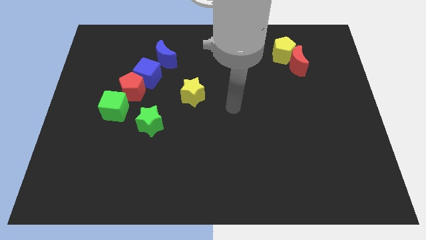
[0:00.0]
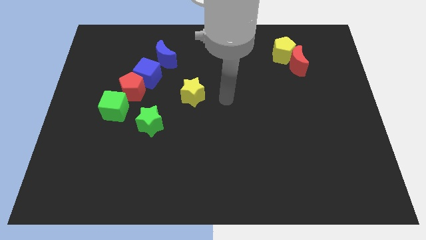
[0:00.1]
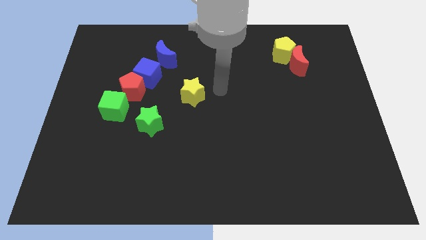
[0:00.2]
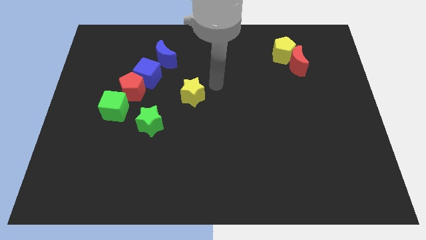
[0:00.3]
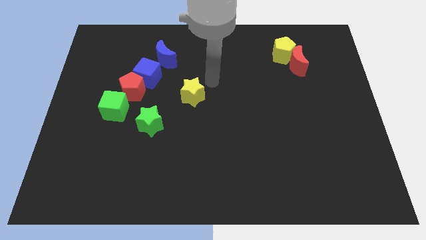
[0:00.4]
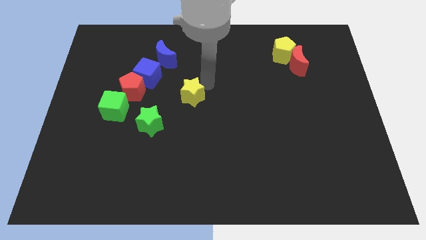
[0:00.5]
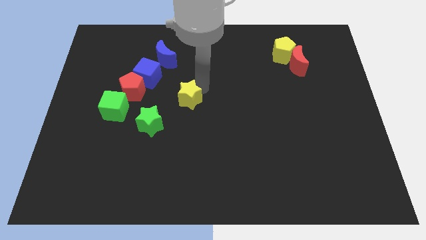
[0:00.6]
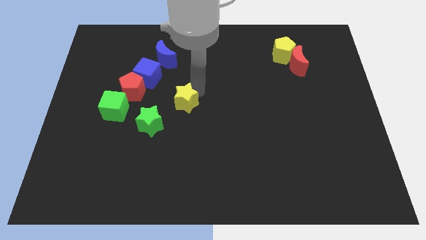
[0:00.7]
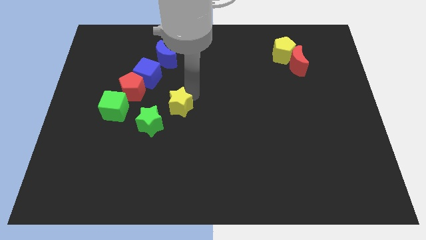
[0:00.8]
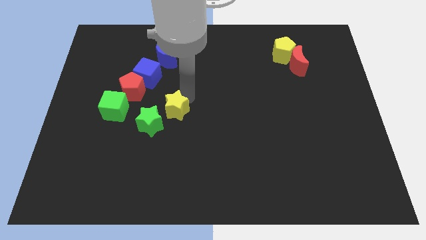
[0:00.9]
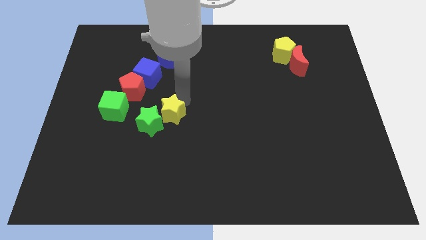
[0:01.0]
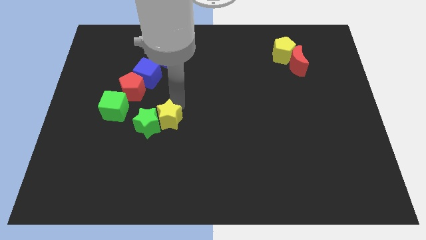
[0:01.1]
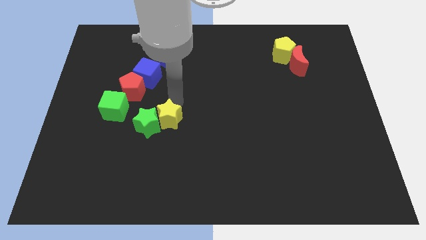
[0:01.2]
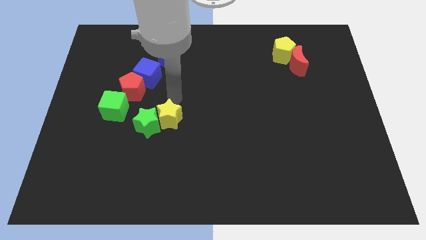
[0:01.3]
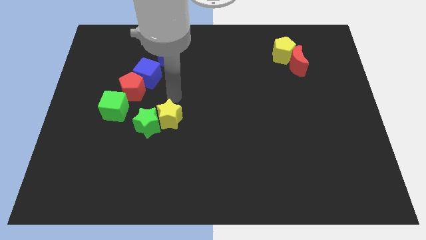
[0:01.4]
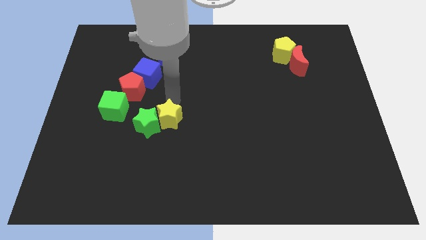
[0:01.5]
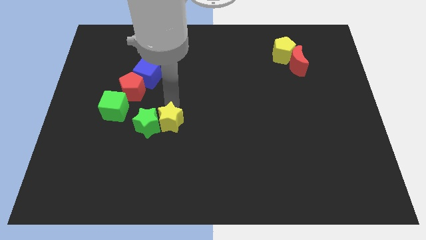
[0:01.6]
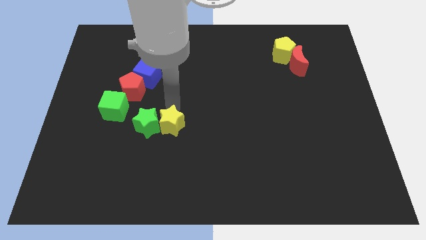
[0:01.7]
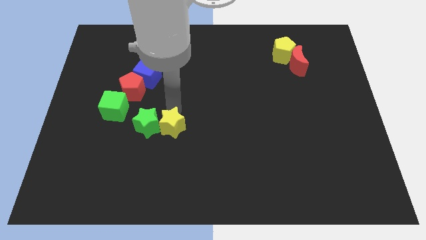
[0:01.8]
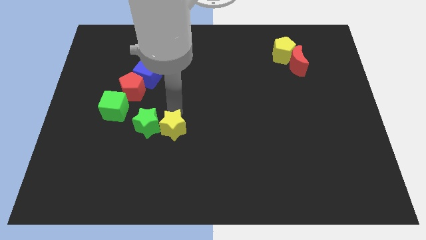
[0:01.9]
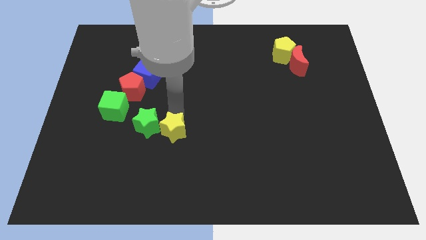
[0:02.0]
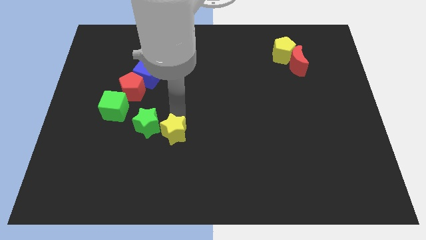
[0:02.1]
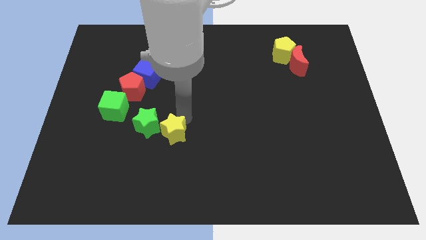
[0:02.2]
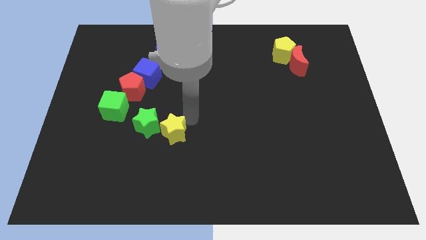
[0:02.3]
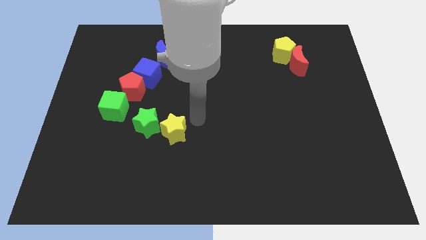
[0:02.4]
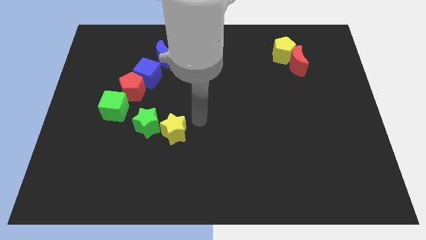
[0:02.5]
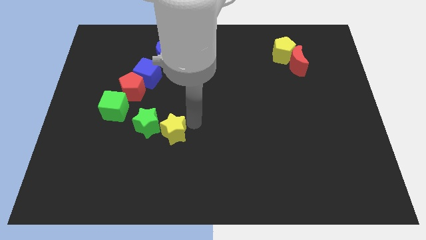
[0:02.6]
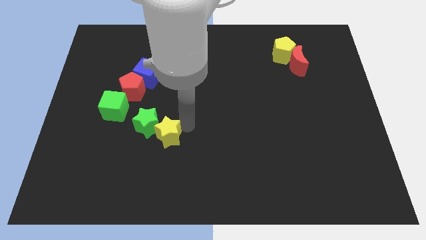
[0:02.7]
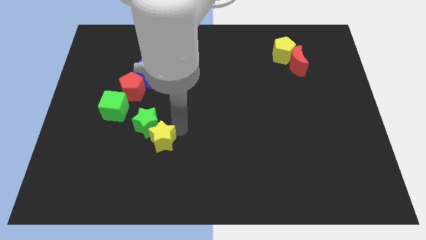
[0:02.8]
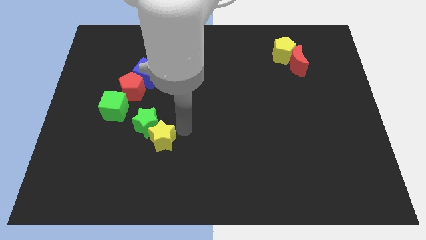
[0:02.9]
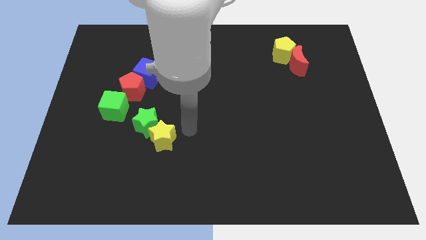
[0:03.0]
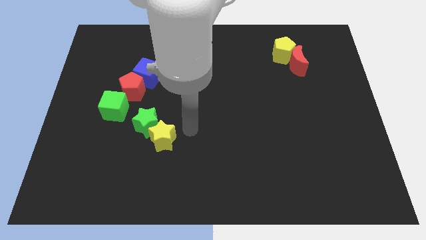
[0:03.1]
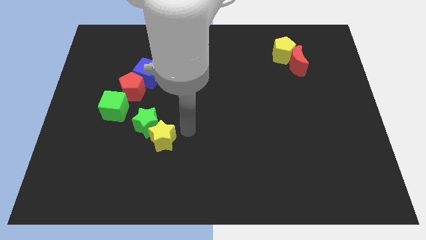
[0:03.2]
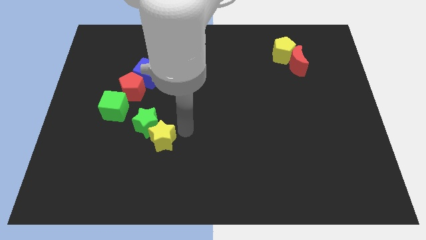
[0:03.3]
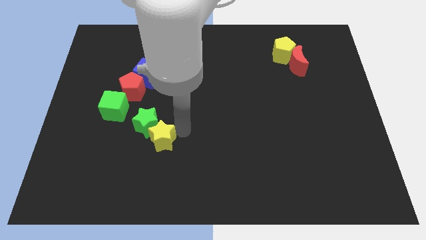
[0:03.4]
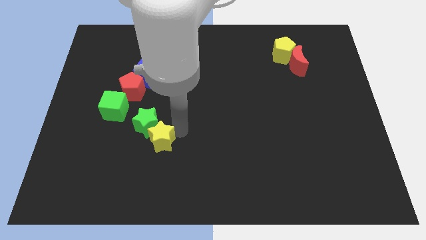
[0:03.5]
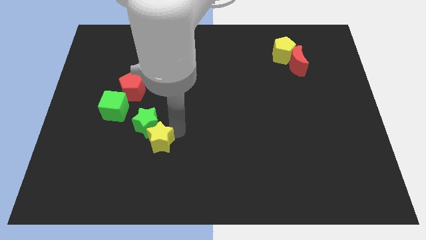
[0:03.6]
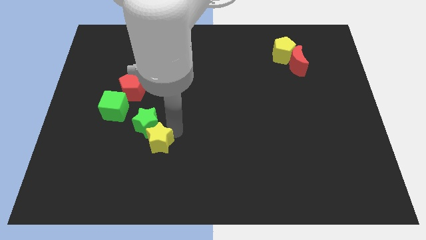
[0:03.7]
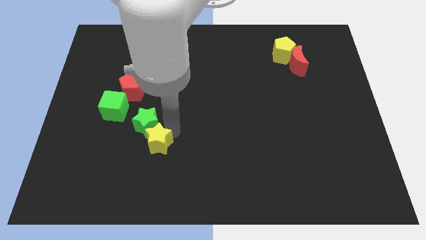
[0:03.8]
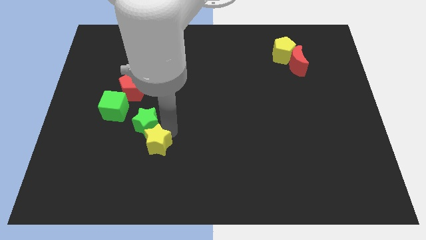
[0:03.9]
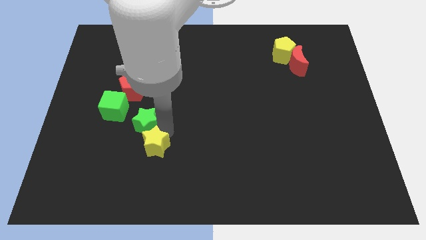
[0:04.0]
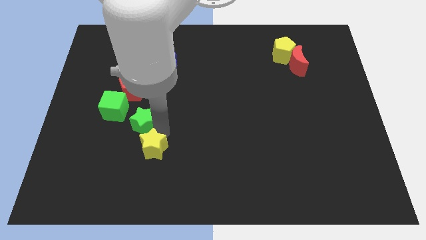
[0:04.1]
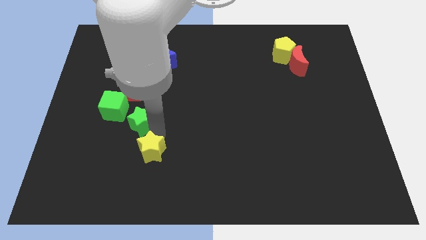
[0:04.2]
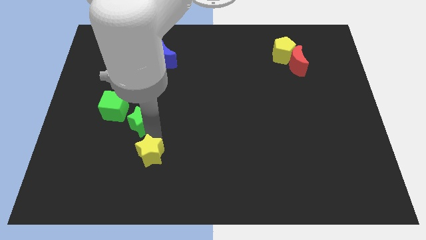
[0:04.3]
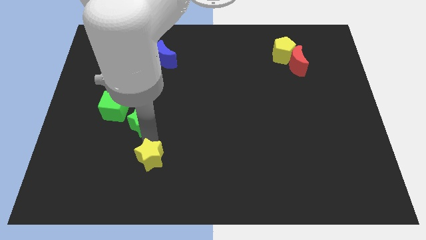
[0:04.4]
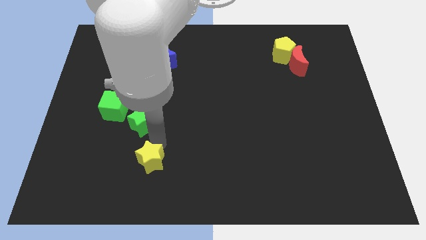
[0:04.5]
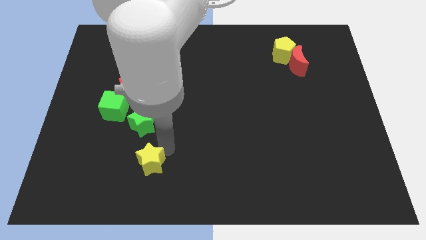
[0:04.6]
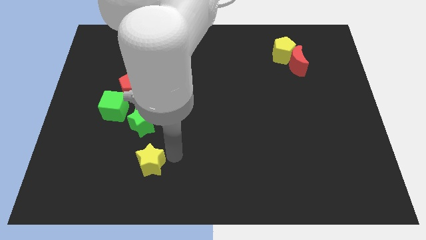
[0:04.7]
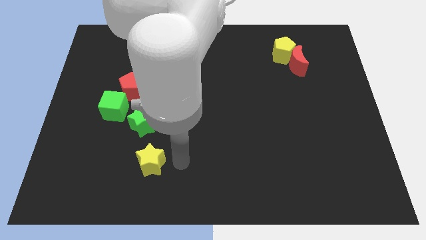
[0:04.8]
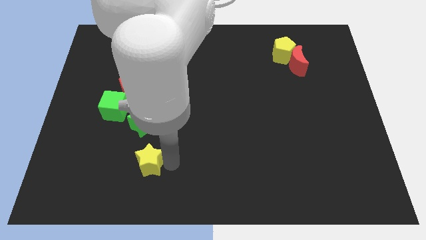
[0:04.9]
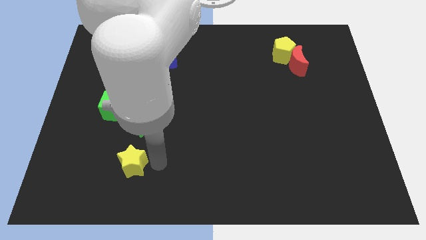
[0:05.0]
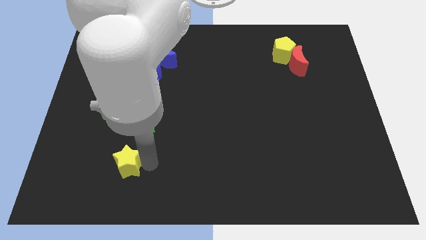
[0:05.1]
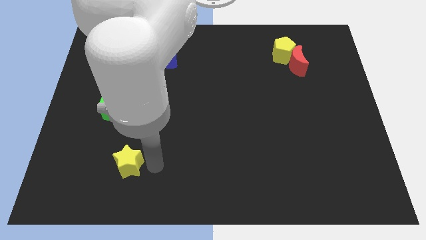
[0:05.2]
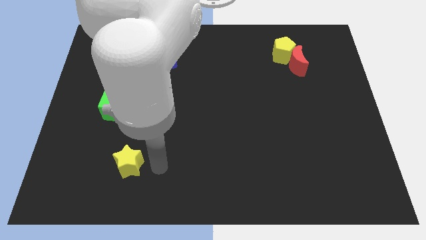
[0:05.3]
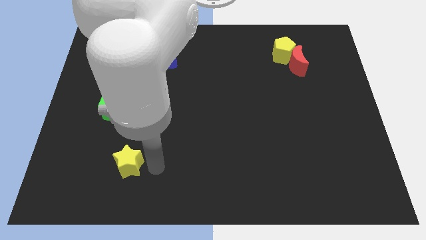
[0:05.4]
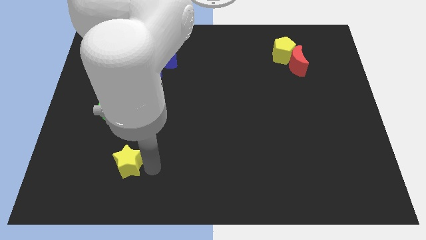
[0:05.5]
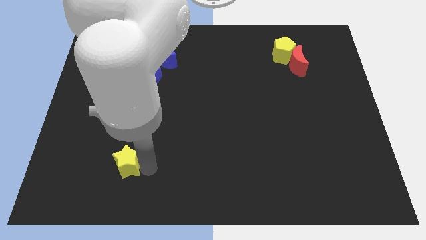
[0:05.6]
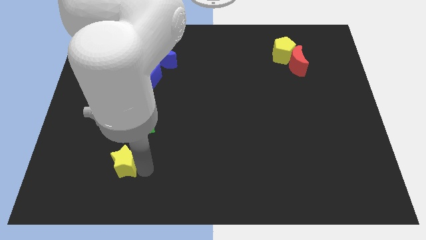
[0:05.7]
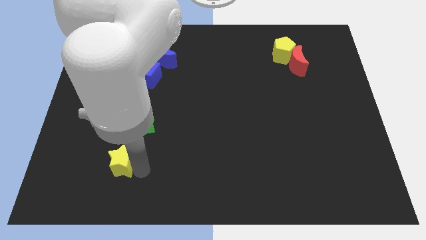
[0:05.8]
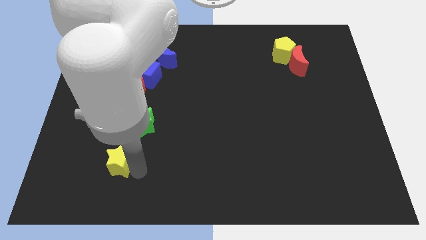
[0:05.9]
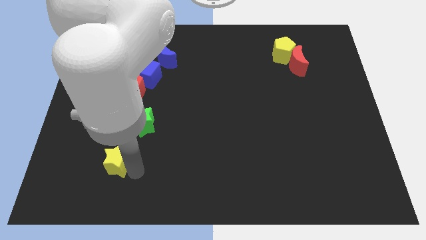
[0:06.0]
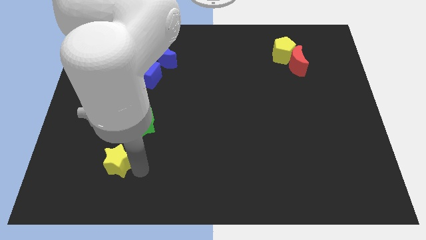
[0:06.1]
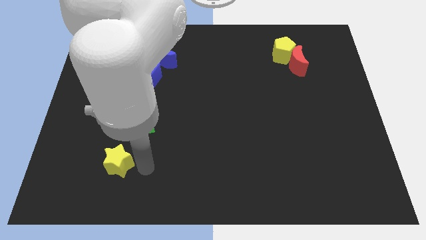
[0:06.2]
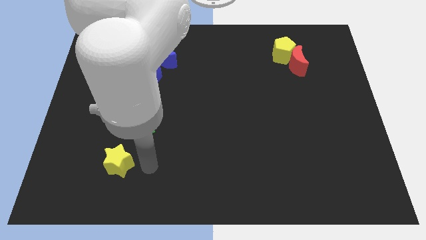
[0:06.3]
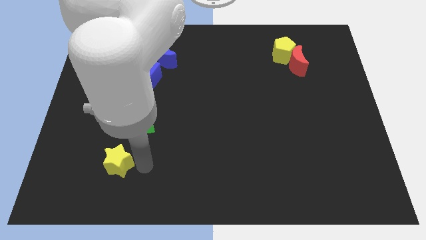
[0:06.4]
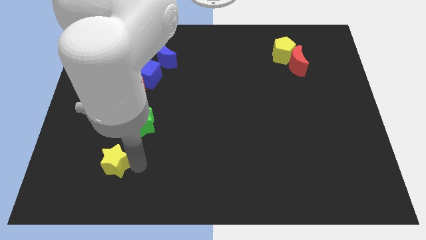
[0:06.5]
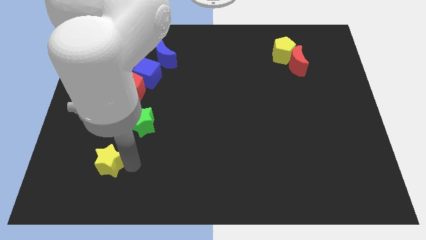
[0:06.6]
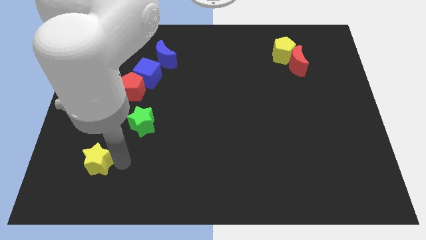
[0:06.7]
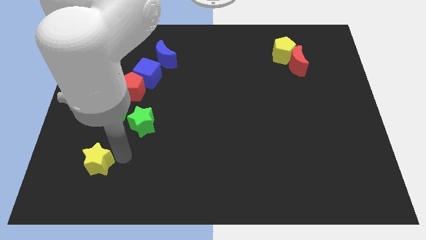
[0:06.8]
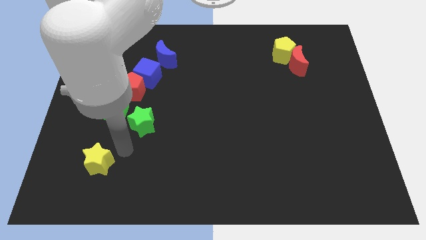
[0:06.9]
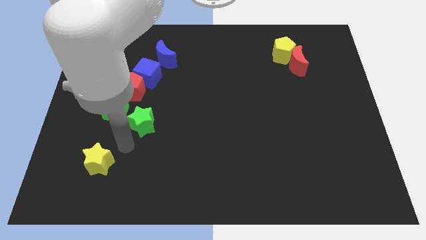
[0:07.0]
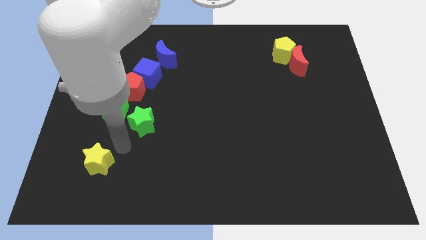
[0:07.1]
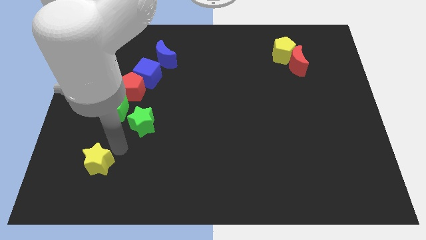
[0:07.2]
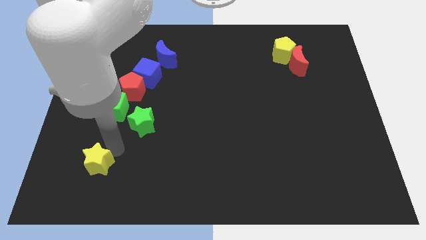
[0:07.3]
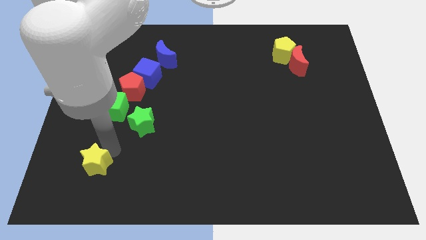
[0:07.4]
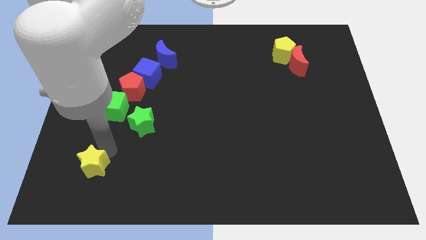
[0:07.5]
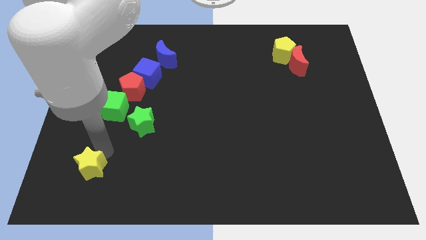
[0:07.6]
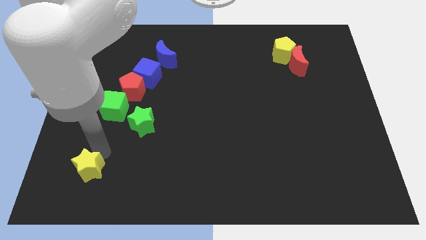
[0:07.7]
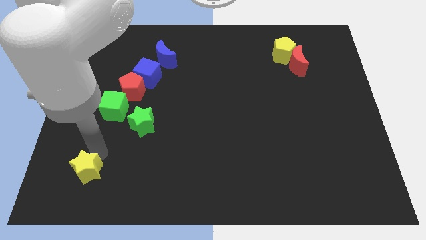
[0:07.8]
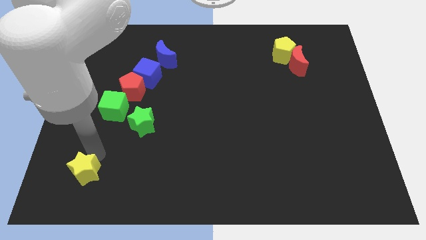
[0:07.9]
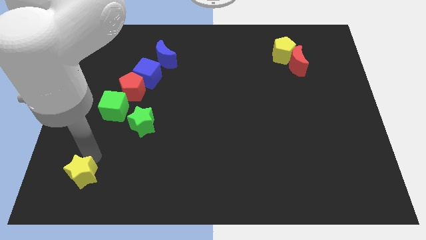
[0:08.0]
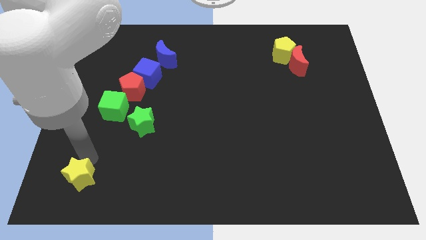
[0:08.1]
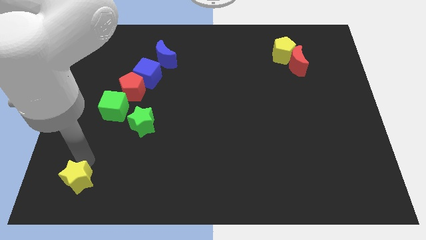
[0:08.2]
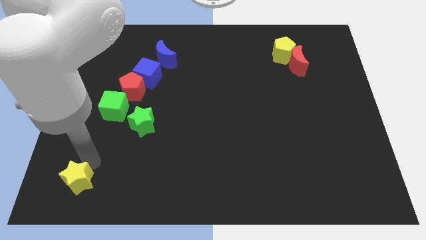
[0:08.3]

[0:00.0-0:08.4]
slide the yellow star to the bottom left
